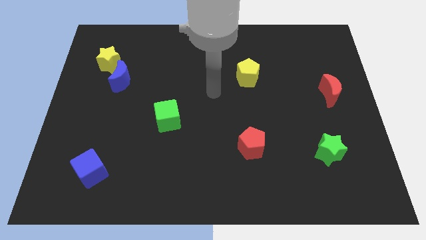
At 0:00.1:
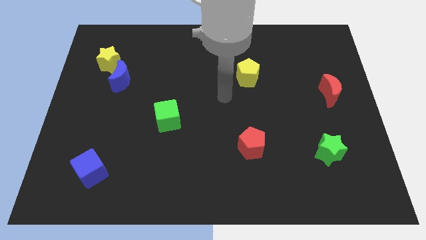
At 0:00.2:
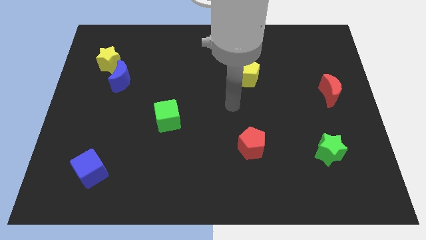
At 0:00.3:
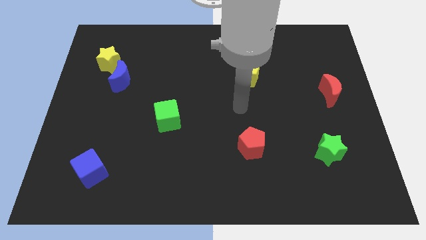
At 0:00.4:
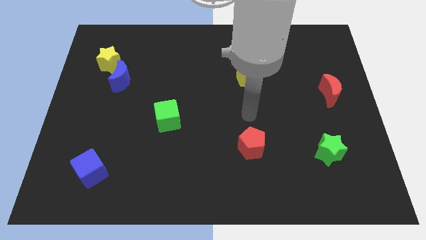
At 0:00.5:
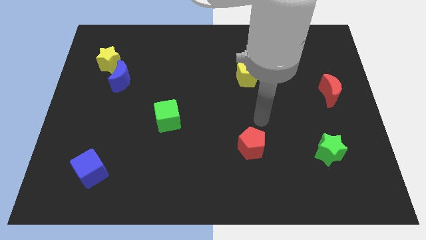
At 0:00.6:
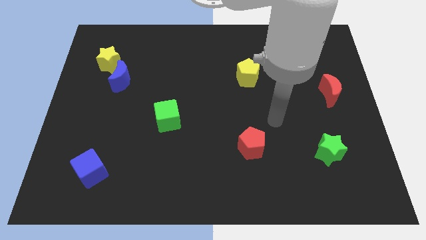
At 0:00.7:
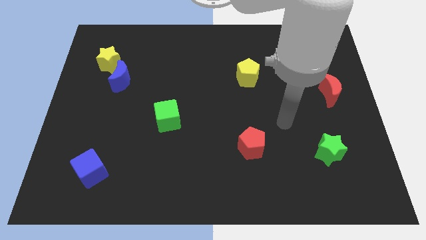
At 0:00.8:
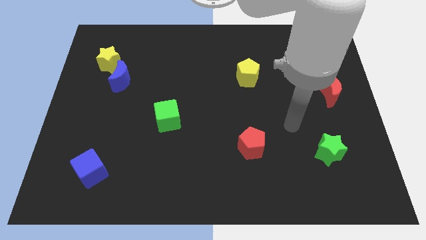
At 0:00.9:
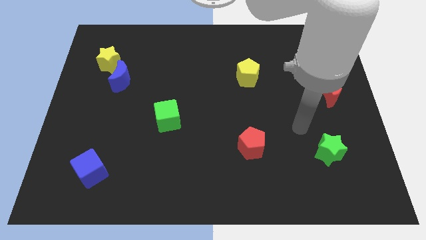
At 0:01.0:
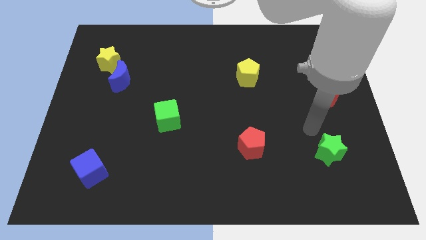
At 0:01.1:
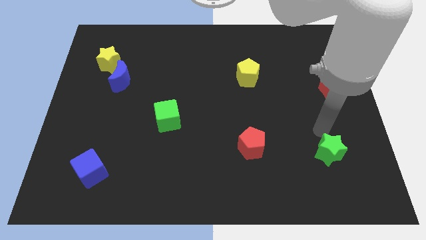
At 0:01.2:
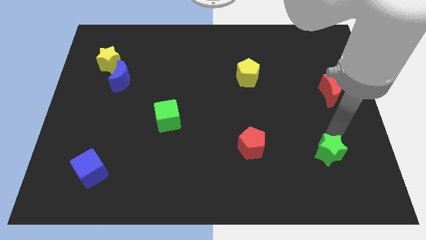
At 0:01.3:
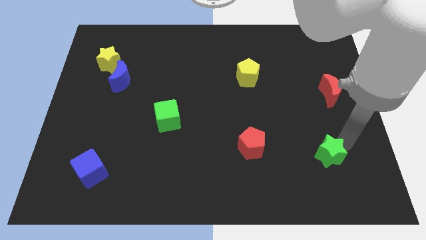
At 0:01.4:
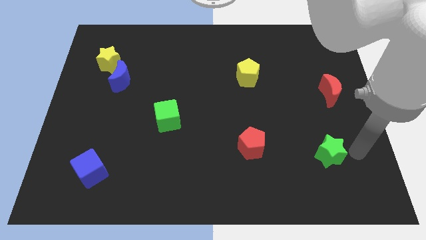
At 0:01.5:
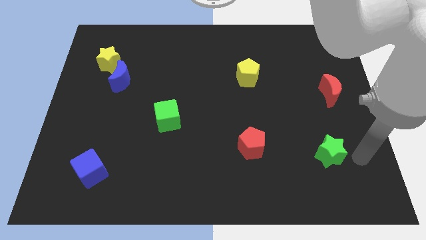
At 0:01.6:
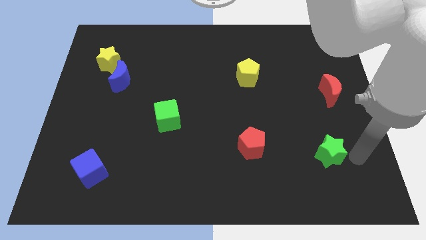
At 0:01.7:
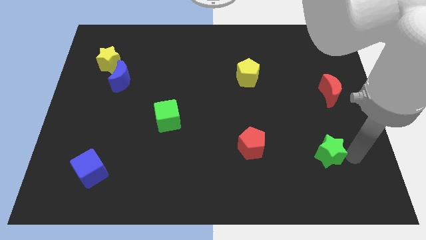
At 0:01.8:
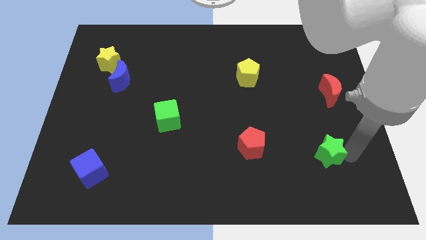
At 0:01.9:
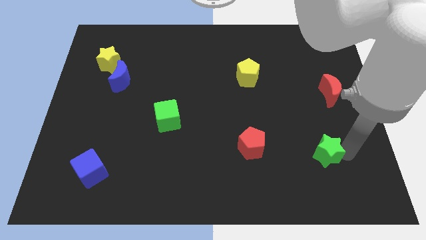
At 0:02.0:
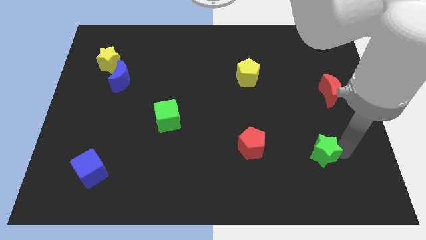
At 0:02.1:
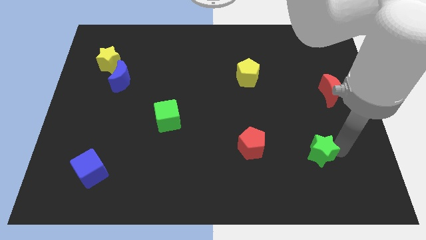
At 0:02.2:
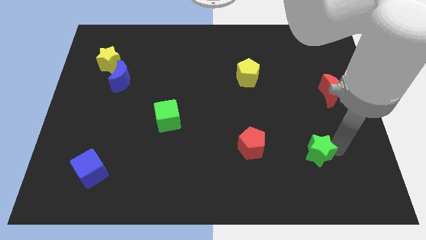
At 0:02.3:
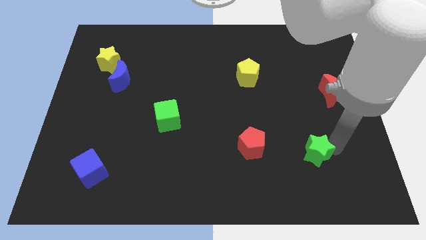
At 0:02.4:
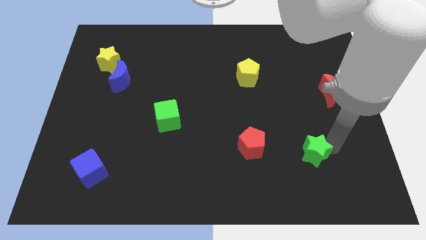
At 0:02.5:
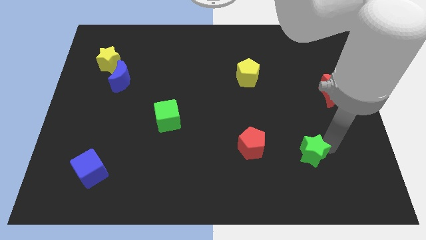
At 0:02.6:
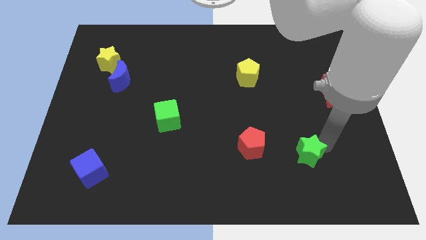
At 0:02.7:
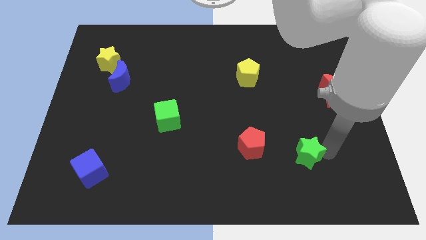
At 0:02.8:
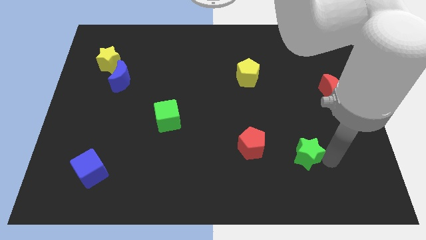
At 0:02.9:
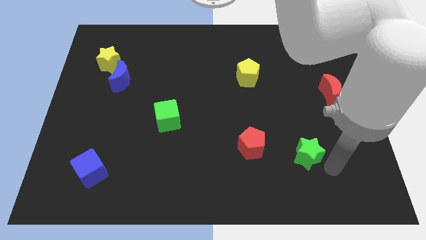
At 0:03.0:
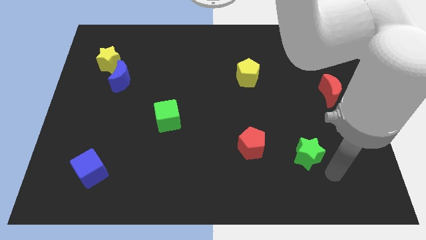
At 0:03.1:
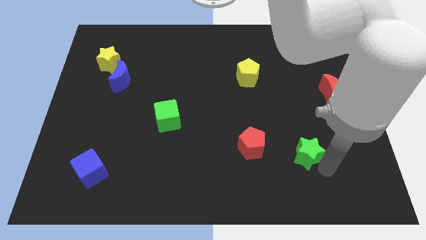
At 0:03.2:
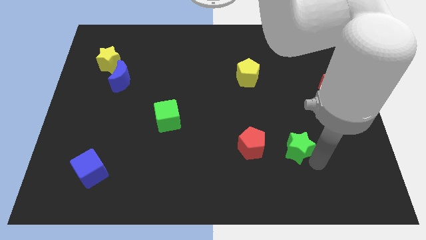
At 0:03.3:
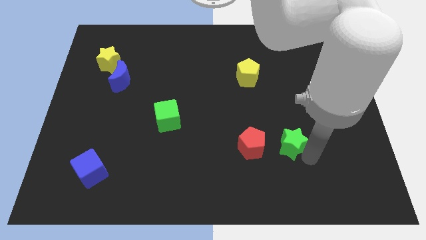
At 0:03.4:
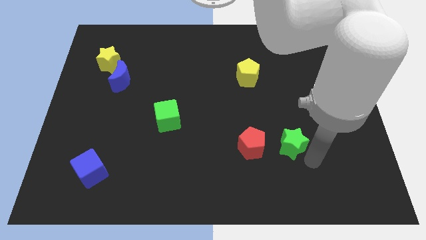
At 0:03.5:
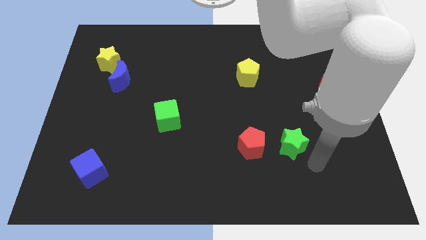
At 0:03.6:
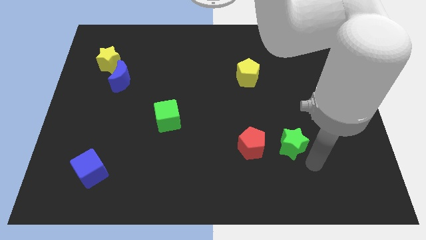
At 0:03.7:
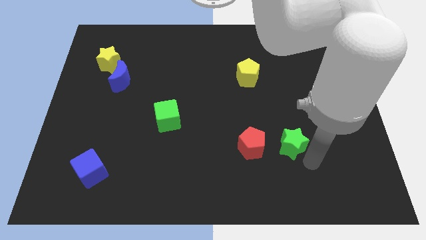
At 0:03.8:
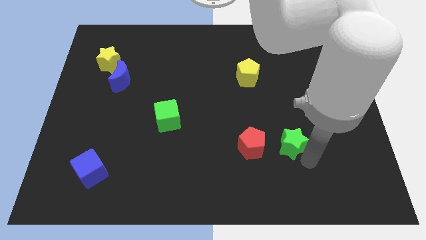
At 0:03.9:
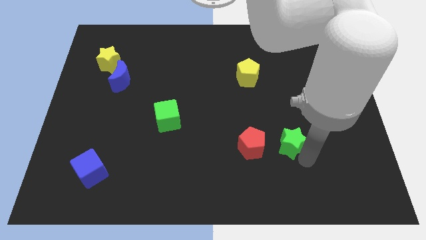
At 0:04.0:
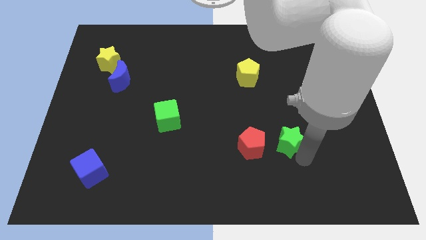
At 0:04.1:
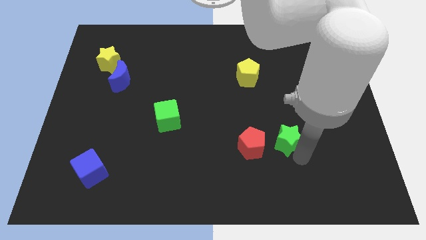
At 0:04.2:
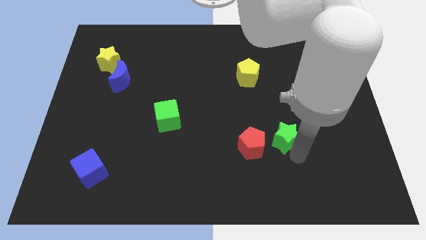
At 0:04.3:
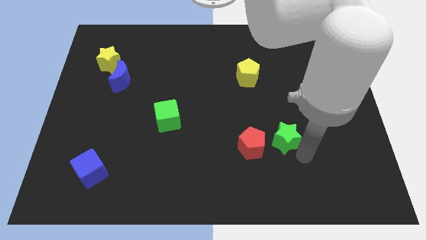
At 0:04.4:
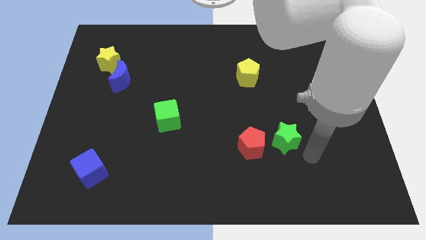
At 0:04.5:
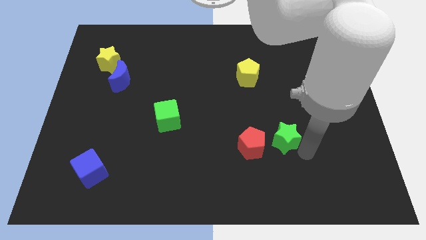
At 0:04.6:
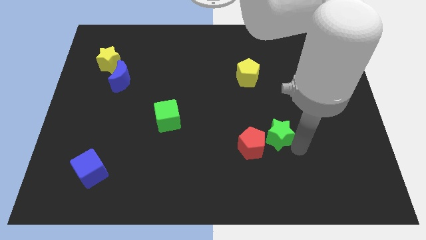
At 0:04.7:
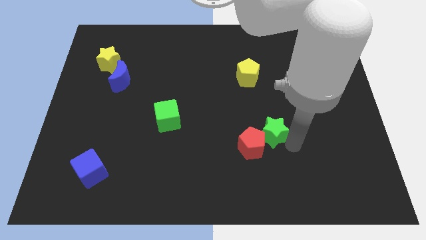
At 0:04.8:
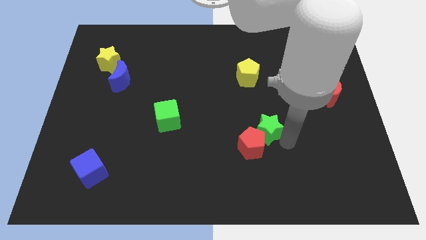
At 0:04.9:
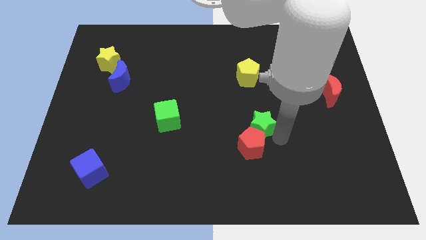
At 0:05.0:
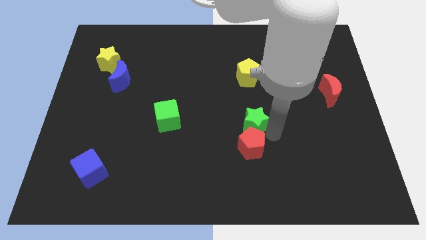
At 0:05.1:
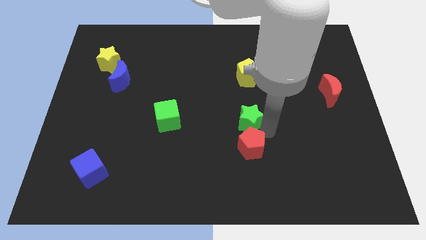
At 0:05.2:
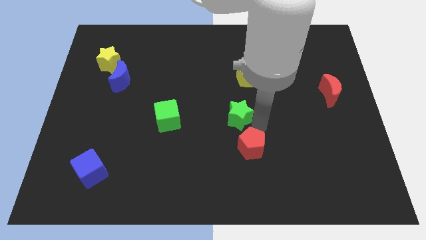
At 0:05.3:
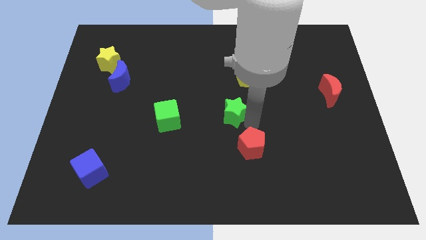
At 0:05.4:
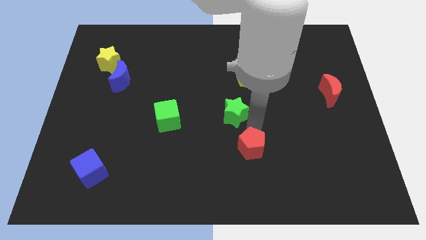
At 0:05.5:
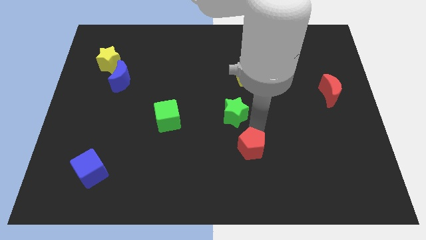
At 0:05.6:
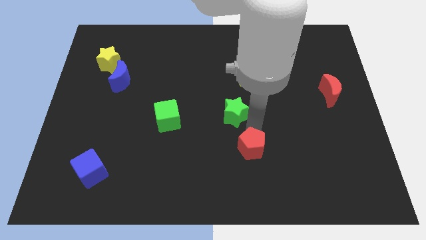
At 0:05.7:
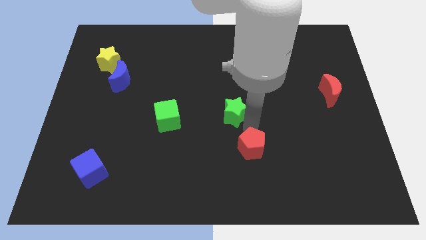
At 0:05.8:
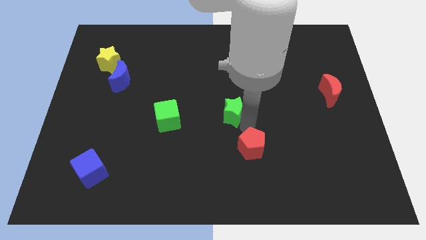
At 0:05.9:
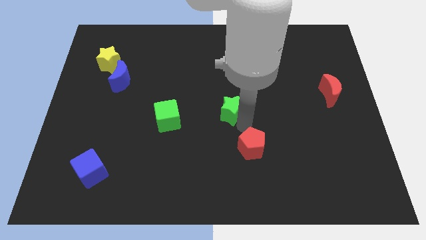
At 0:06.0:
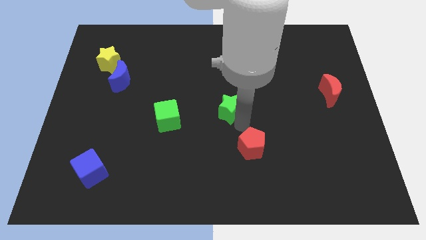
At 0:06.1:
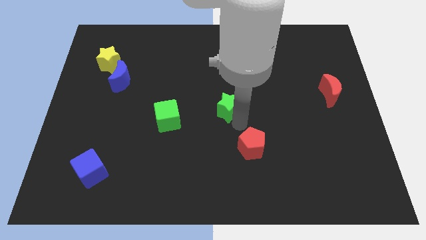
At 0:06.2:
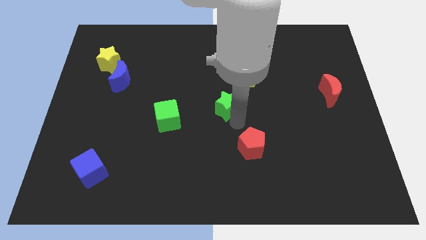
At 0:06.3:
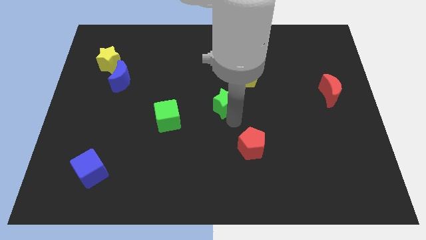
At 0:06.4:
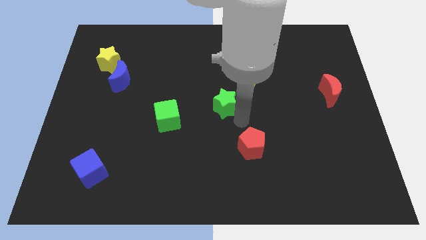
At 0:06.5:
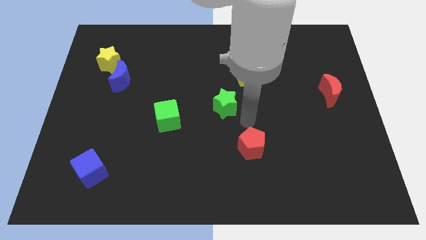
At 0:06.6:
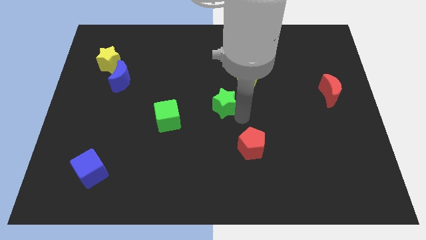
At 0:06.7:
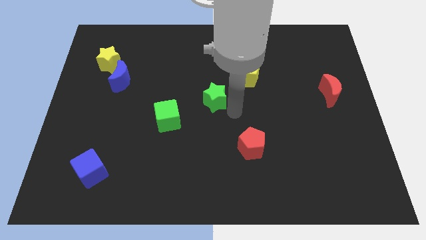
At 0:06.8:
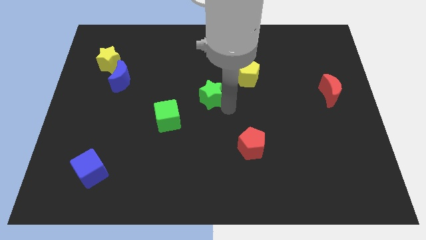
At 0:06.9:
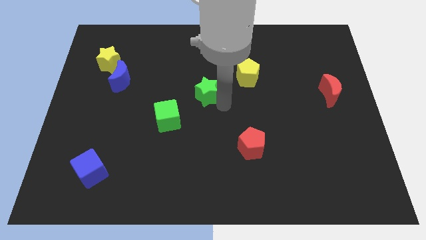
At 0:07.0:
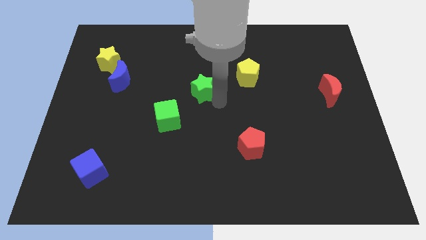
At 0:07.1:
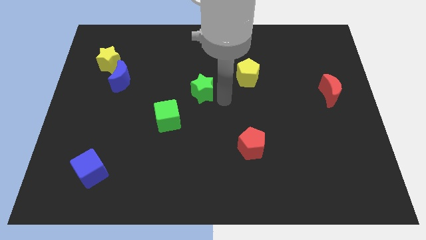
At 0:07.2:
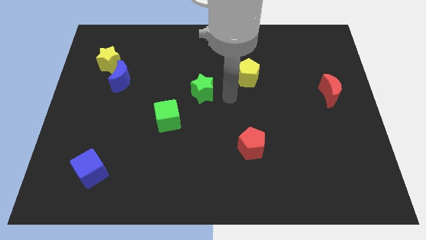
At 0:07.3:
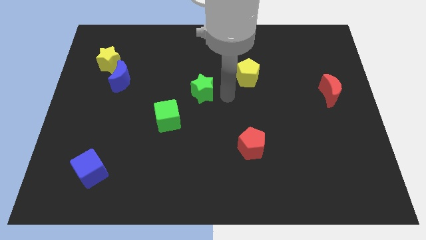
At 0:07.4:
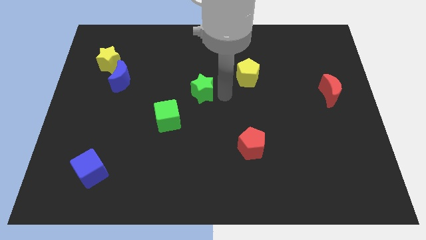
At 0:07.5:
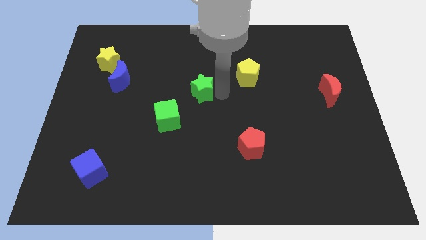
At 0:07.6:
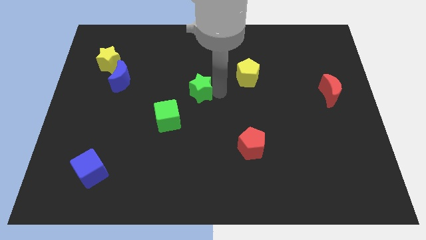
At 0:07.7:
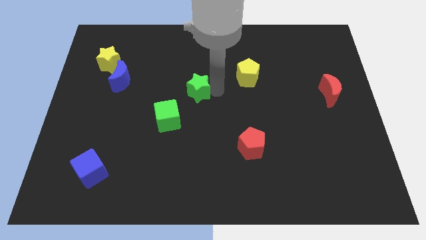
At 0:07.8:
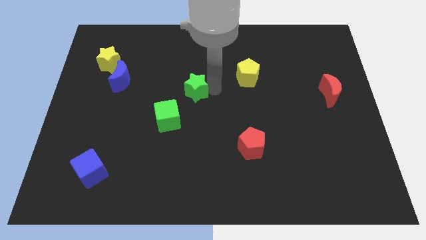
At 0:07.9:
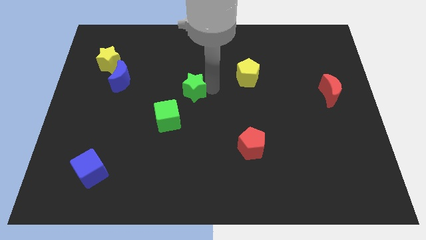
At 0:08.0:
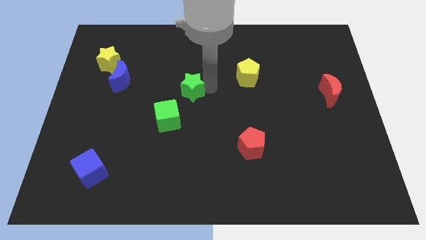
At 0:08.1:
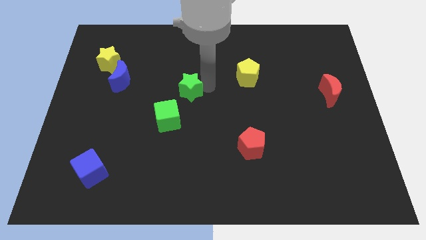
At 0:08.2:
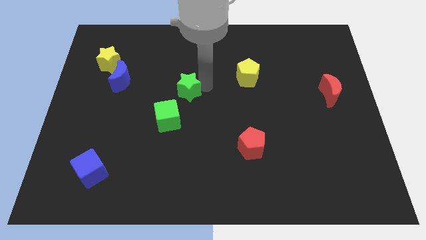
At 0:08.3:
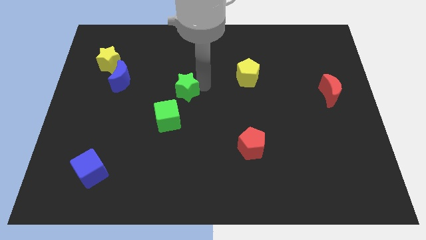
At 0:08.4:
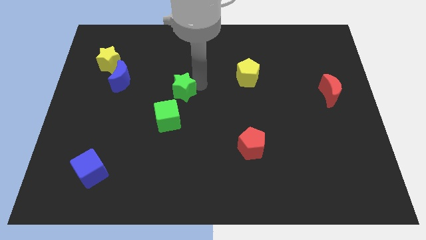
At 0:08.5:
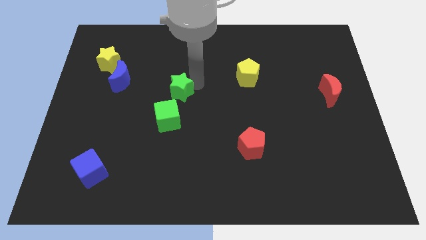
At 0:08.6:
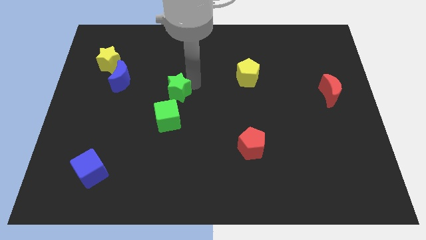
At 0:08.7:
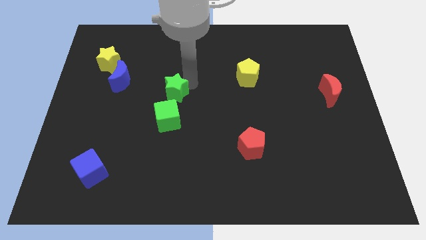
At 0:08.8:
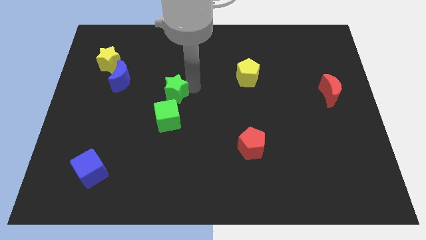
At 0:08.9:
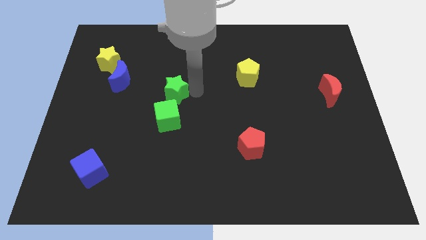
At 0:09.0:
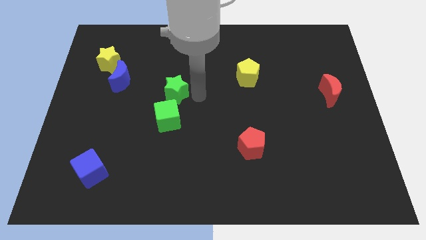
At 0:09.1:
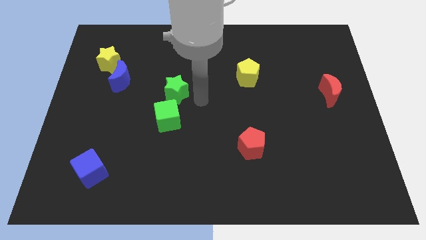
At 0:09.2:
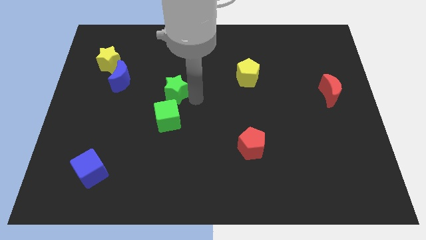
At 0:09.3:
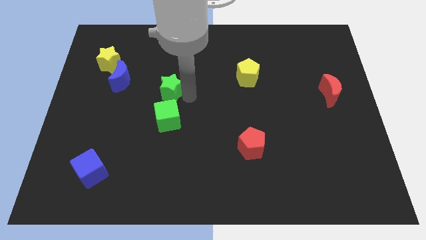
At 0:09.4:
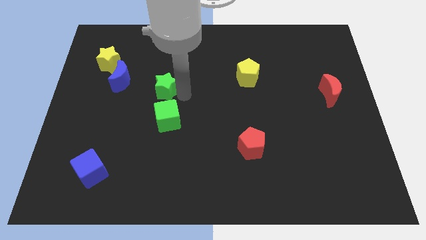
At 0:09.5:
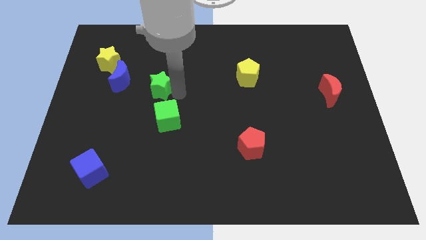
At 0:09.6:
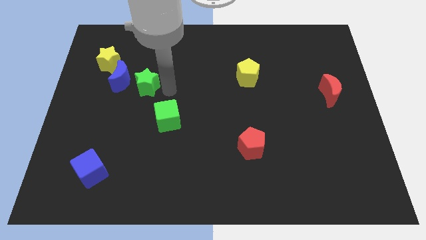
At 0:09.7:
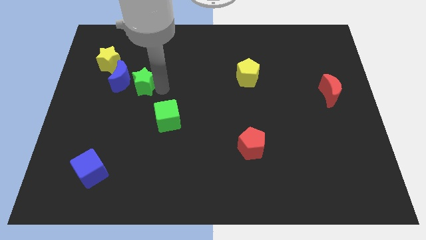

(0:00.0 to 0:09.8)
put the green star towards the blue moon
